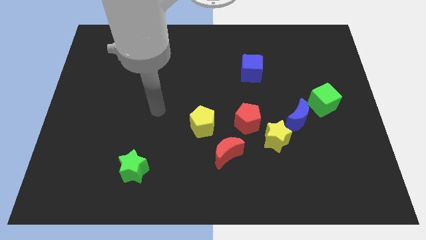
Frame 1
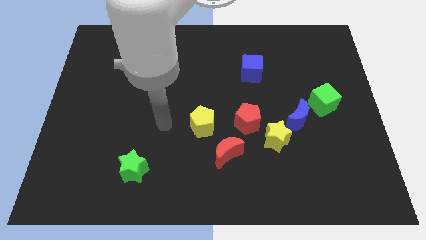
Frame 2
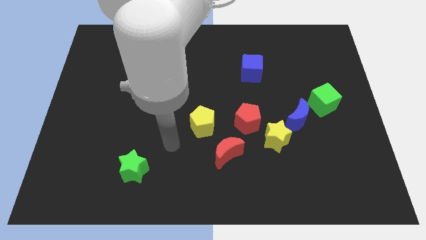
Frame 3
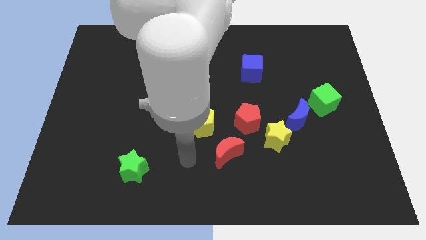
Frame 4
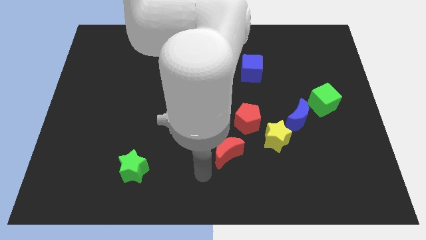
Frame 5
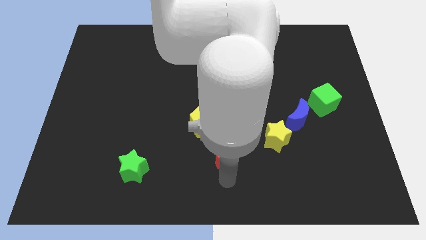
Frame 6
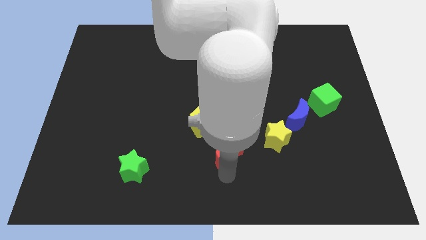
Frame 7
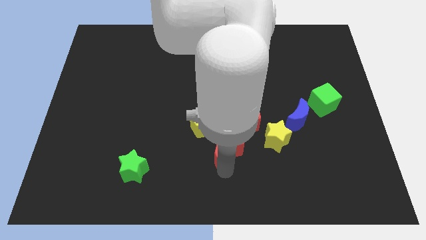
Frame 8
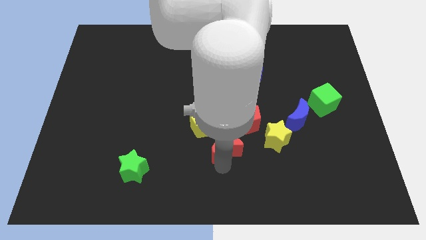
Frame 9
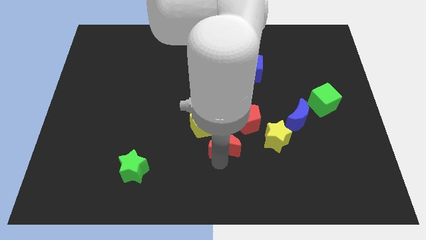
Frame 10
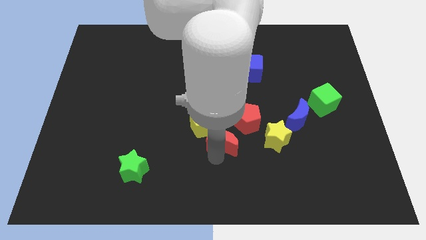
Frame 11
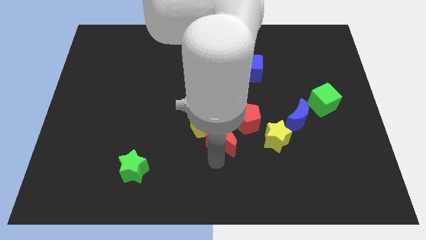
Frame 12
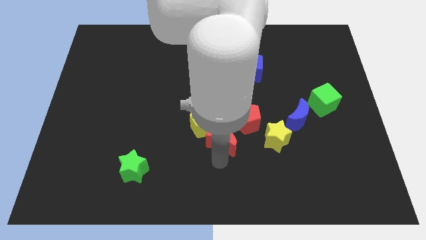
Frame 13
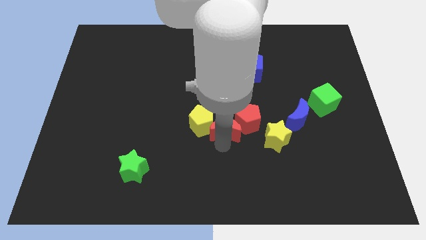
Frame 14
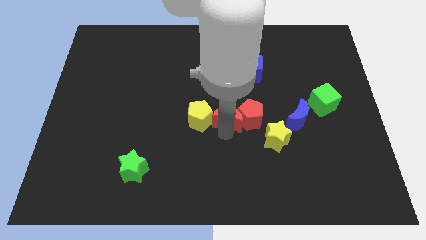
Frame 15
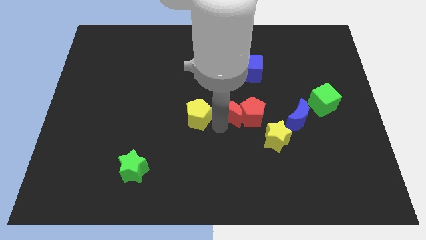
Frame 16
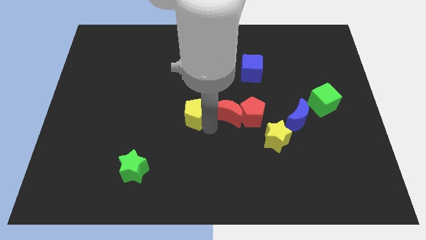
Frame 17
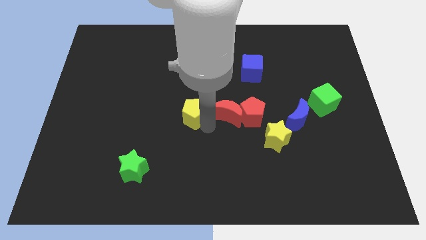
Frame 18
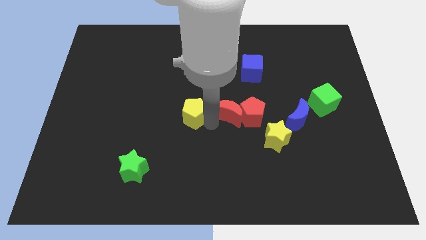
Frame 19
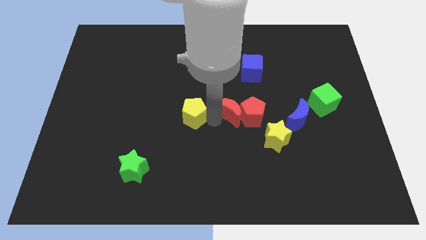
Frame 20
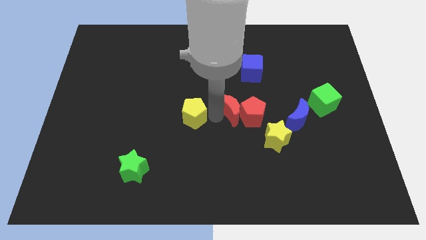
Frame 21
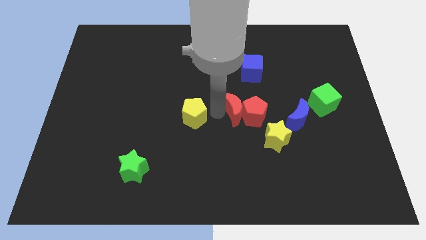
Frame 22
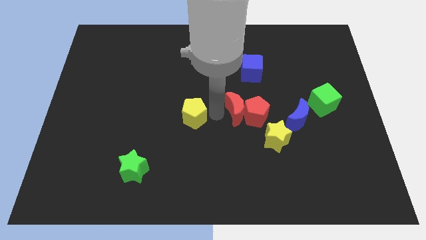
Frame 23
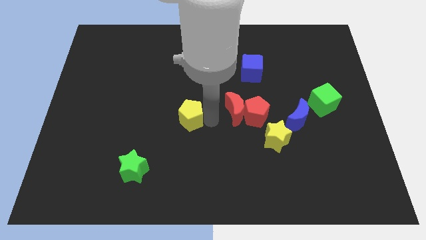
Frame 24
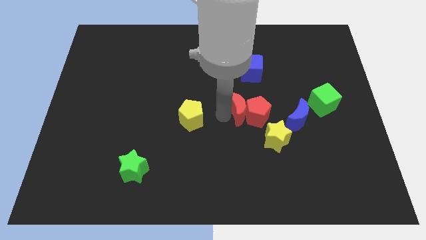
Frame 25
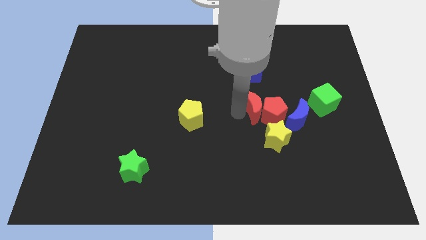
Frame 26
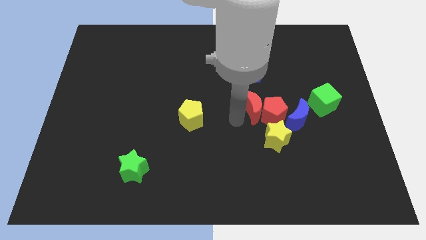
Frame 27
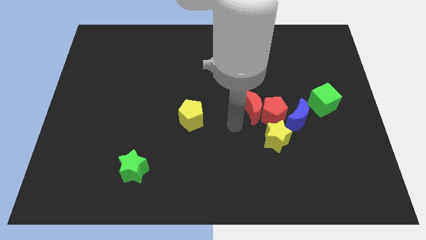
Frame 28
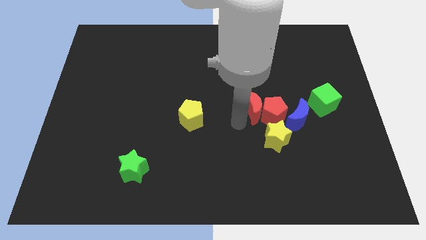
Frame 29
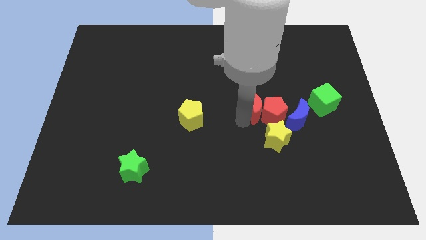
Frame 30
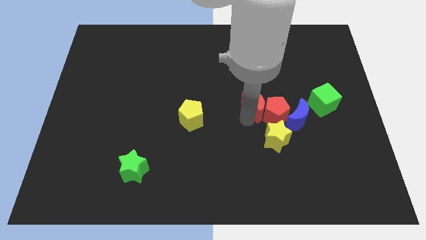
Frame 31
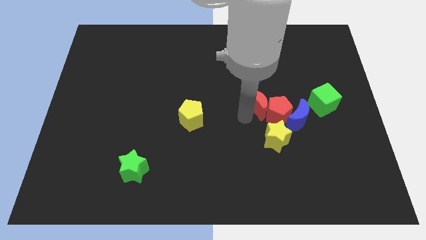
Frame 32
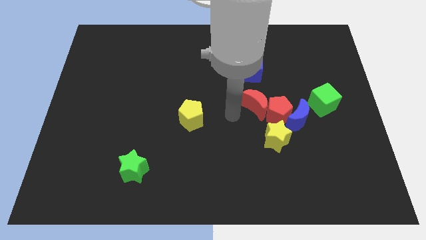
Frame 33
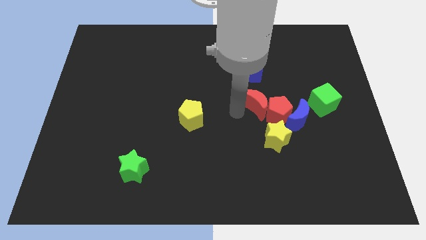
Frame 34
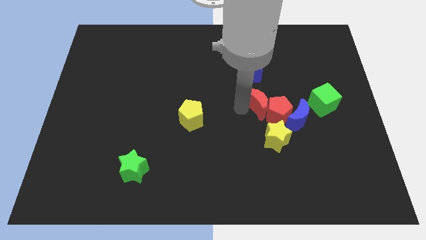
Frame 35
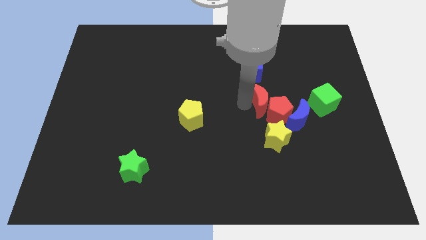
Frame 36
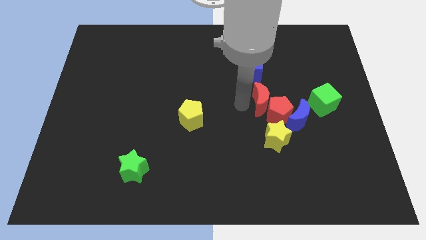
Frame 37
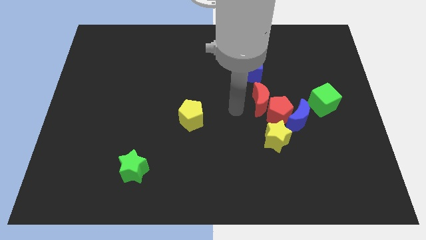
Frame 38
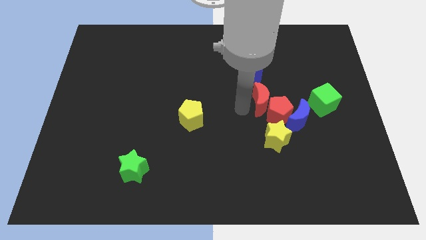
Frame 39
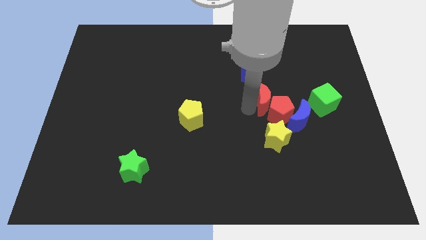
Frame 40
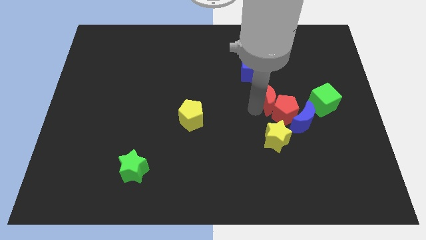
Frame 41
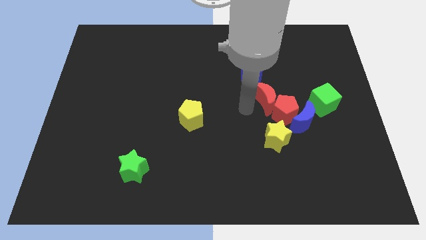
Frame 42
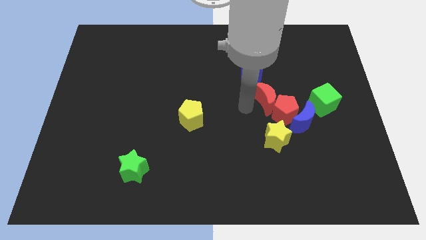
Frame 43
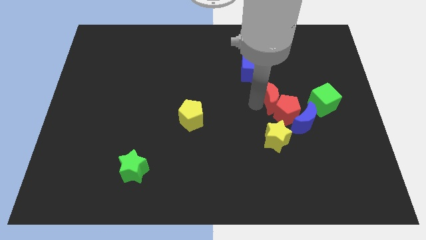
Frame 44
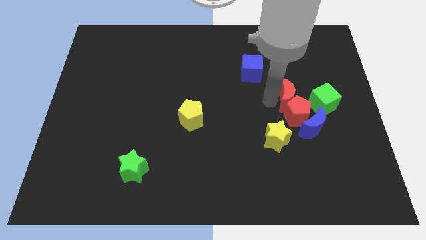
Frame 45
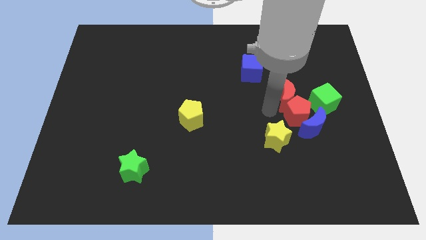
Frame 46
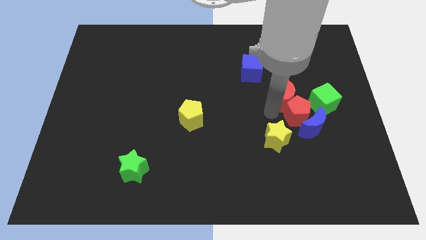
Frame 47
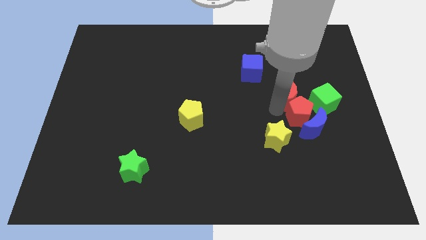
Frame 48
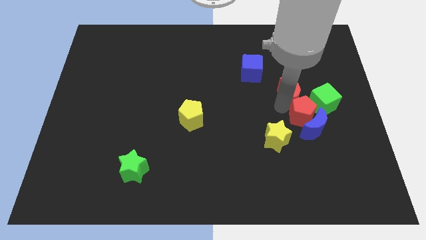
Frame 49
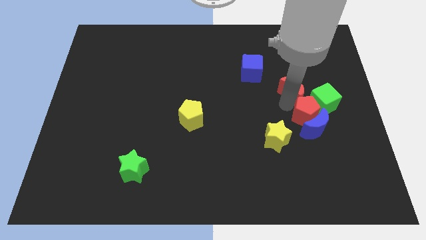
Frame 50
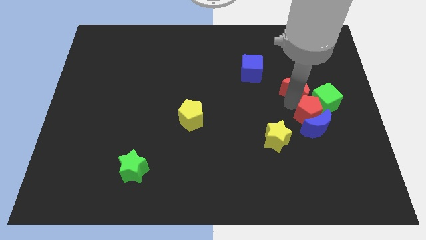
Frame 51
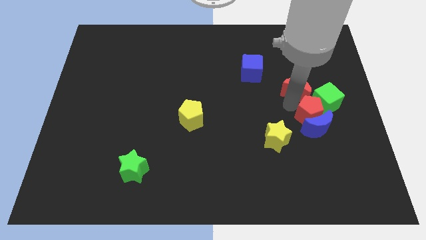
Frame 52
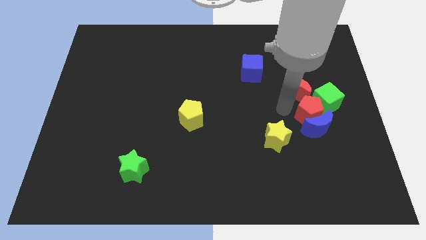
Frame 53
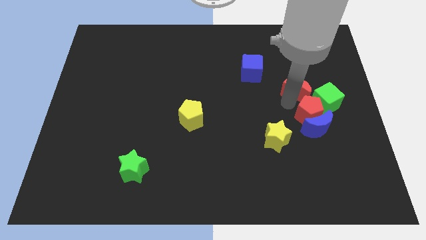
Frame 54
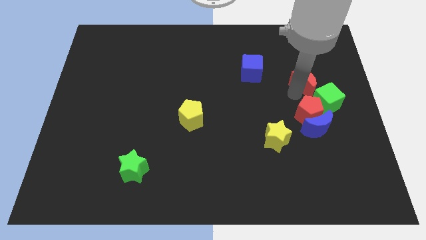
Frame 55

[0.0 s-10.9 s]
slide the red moon above the green cube
